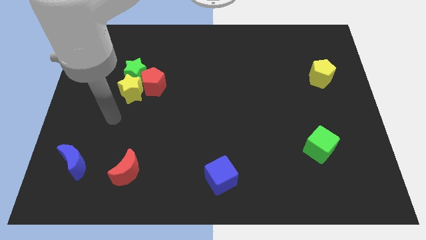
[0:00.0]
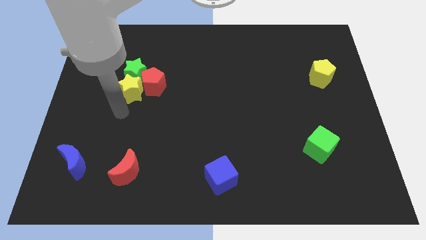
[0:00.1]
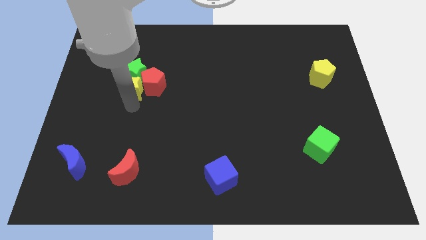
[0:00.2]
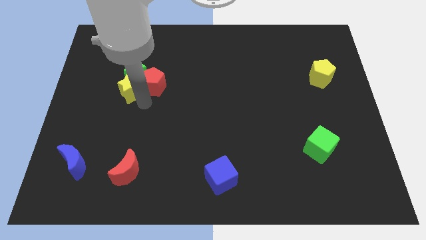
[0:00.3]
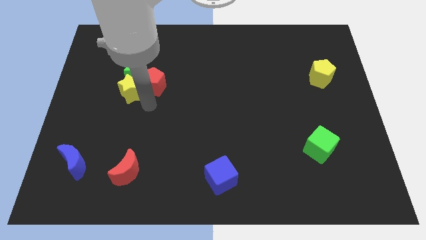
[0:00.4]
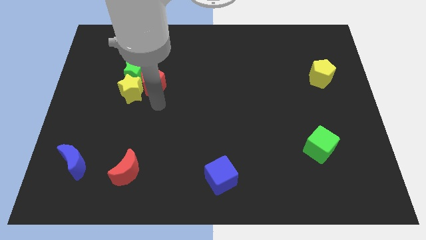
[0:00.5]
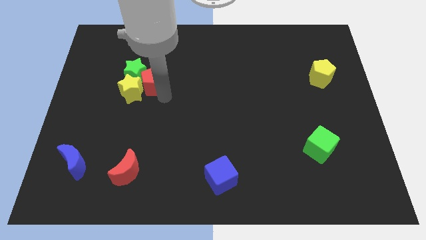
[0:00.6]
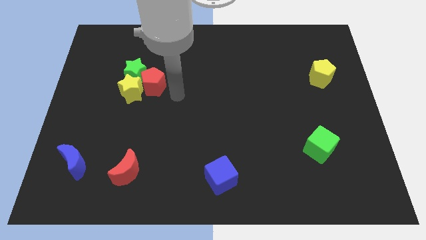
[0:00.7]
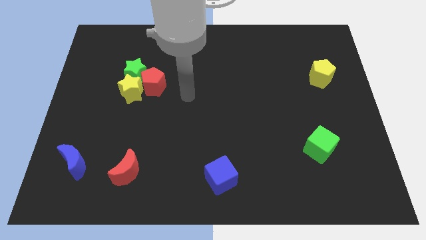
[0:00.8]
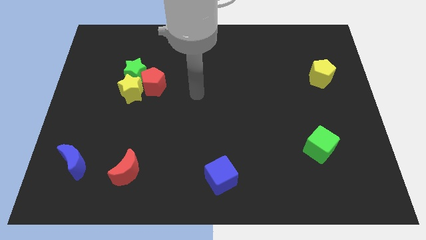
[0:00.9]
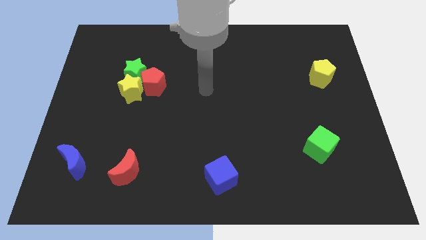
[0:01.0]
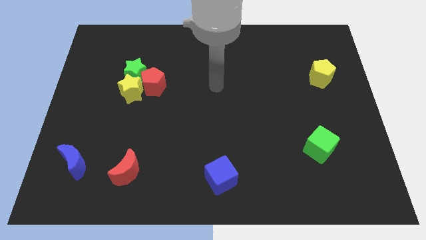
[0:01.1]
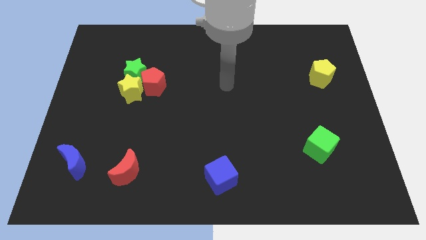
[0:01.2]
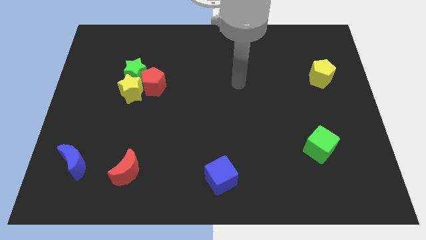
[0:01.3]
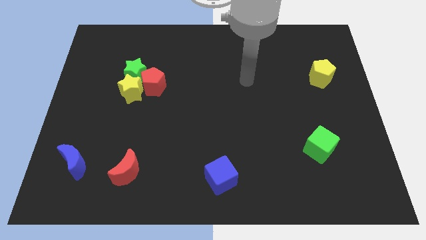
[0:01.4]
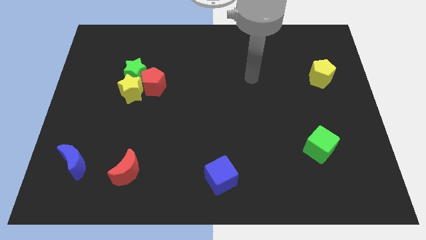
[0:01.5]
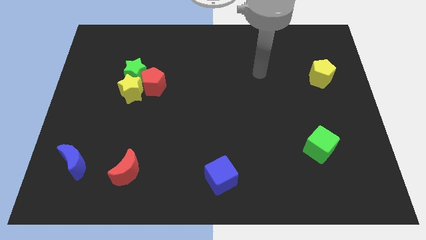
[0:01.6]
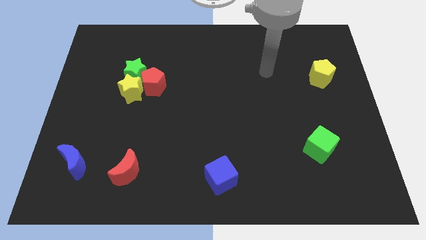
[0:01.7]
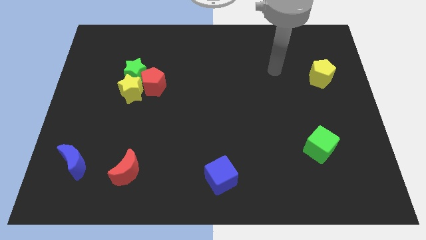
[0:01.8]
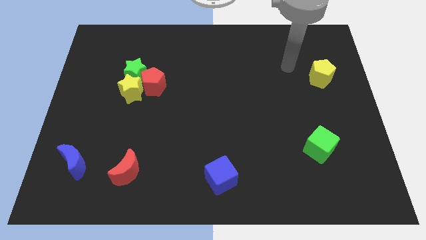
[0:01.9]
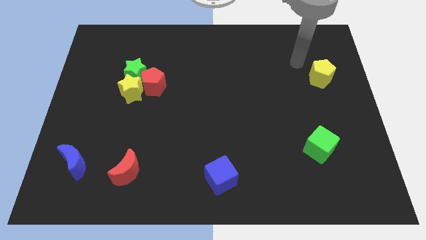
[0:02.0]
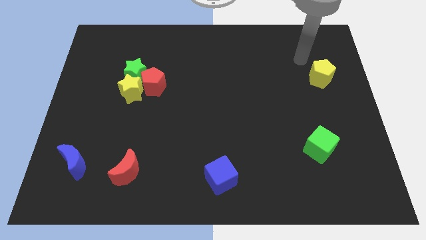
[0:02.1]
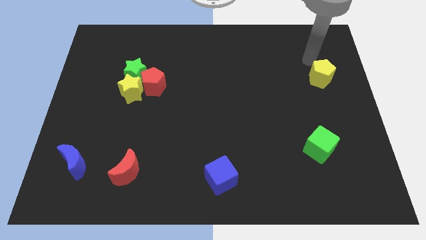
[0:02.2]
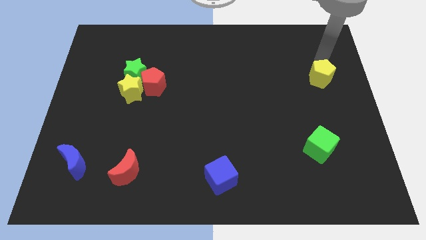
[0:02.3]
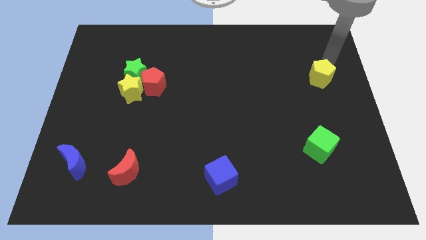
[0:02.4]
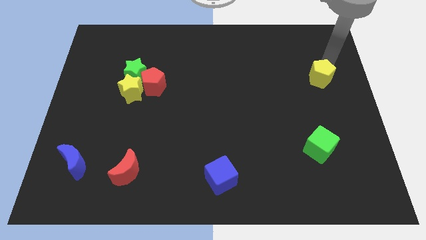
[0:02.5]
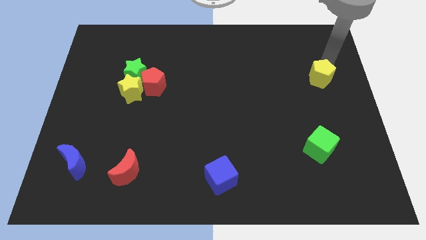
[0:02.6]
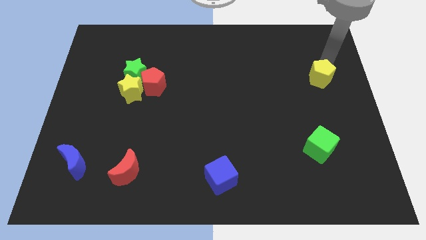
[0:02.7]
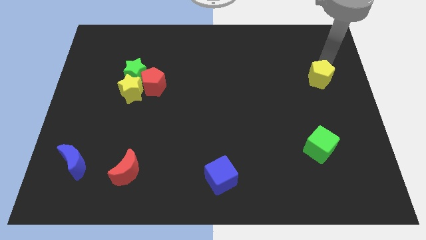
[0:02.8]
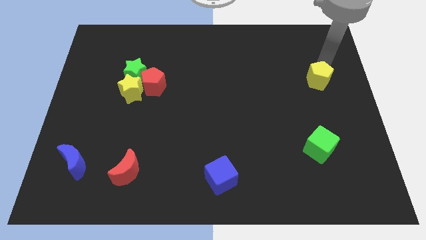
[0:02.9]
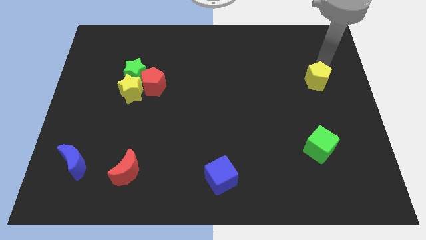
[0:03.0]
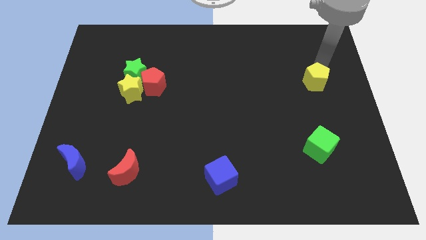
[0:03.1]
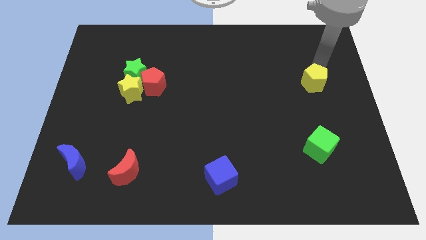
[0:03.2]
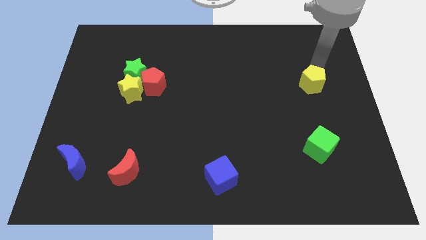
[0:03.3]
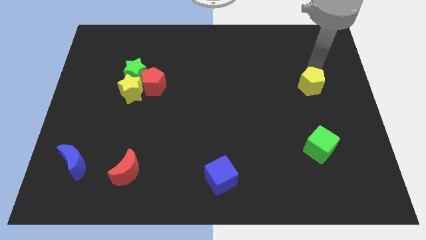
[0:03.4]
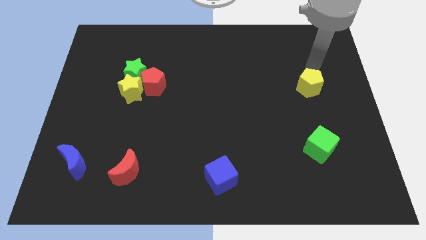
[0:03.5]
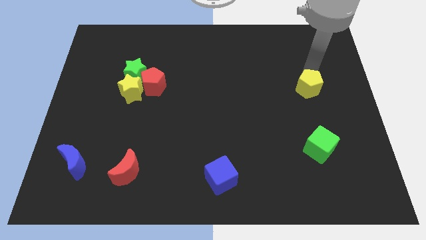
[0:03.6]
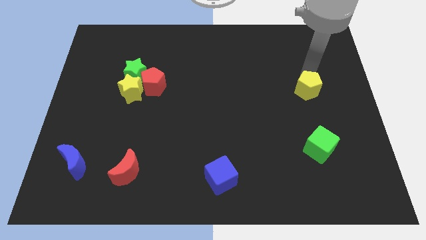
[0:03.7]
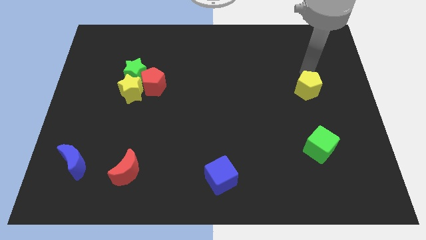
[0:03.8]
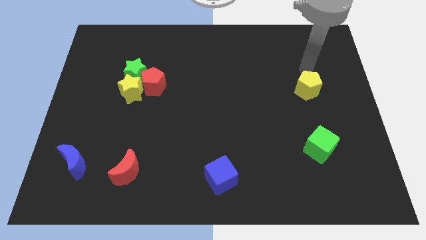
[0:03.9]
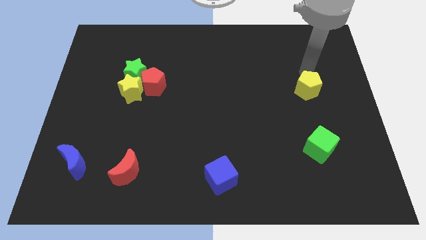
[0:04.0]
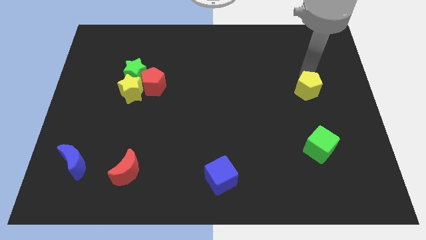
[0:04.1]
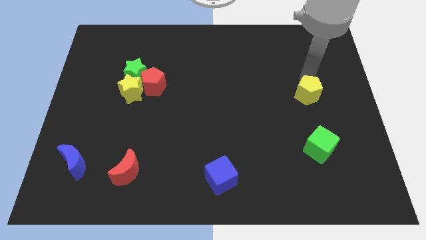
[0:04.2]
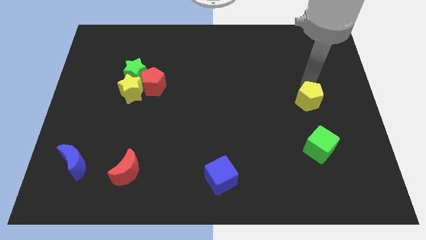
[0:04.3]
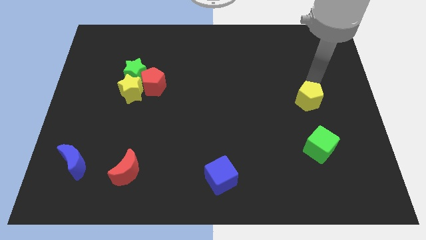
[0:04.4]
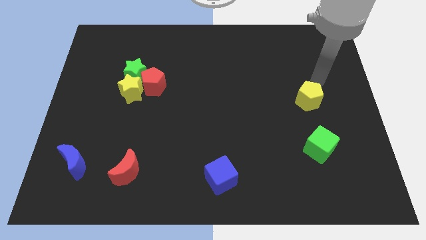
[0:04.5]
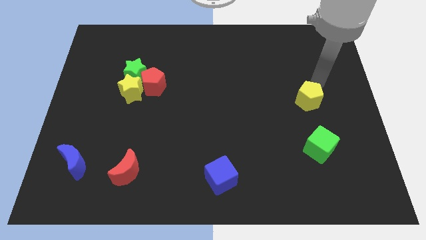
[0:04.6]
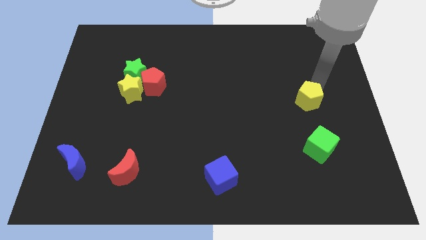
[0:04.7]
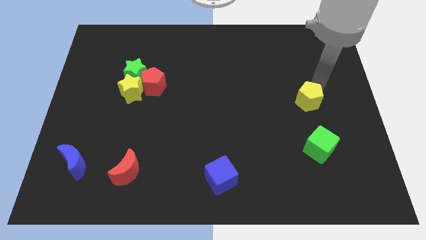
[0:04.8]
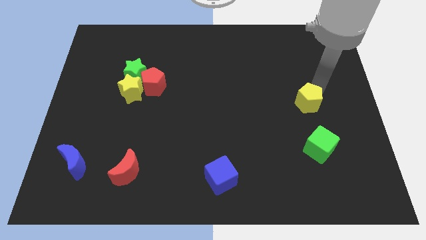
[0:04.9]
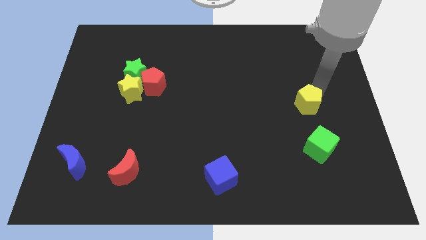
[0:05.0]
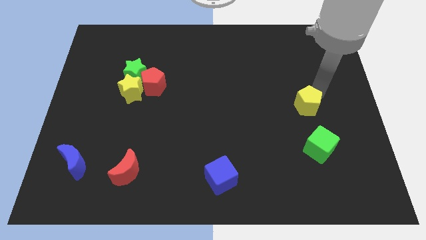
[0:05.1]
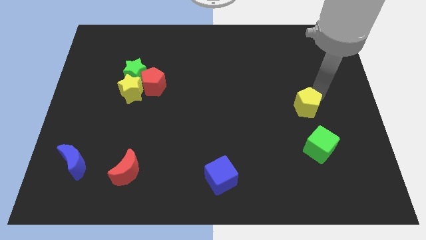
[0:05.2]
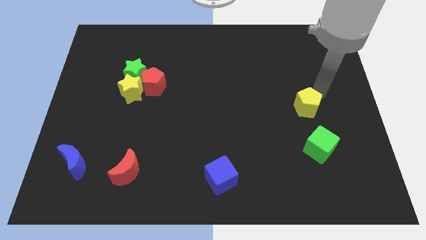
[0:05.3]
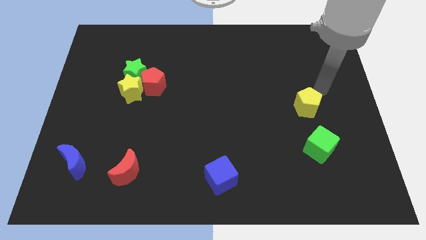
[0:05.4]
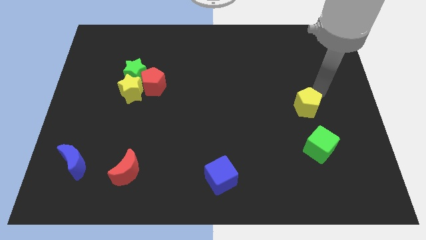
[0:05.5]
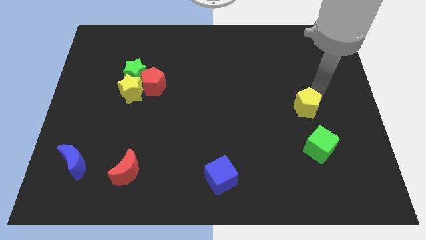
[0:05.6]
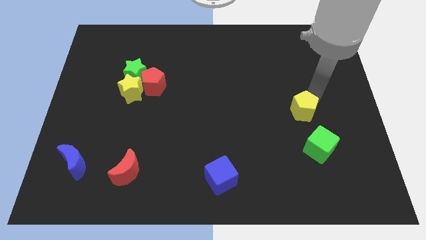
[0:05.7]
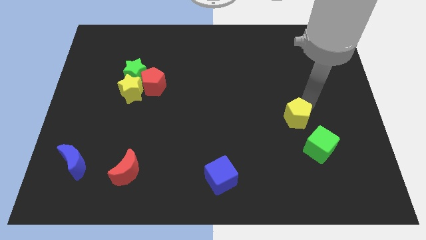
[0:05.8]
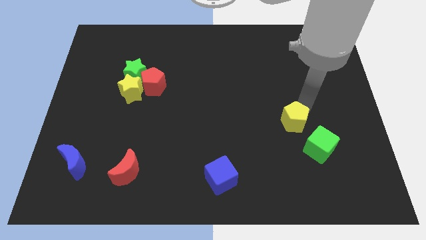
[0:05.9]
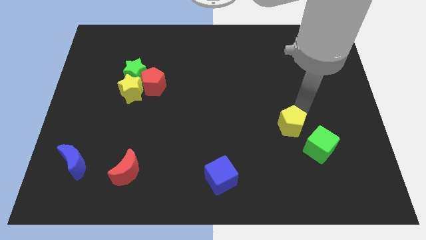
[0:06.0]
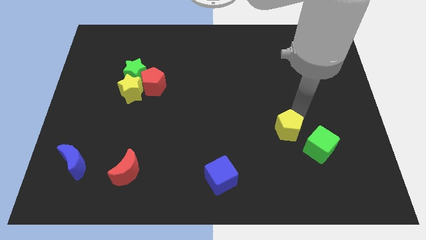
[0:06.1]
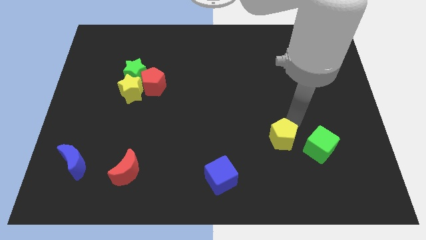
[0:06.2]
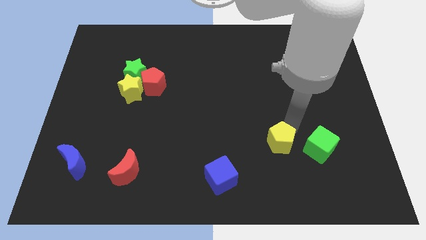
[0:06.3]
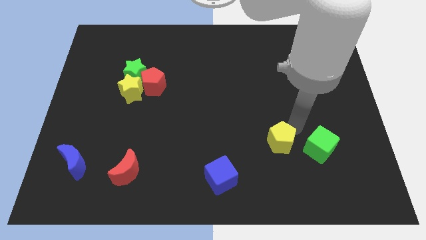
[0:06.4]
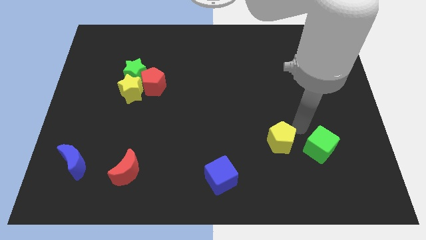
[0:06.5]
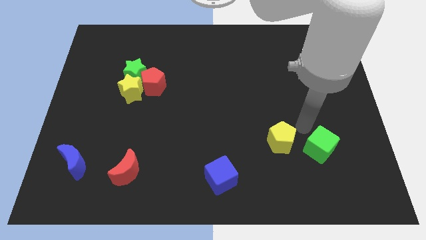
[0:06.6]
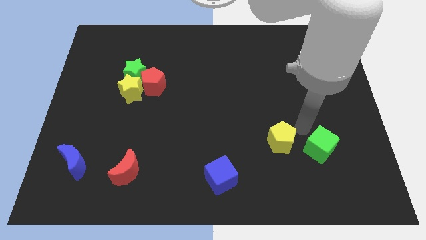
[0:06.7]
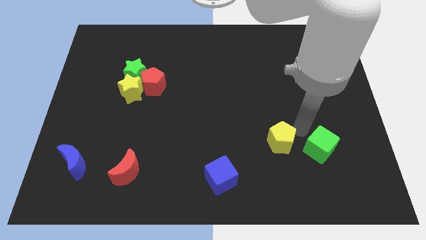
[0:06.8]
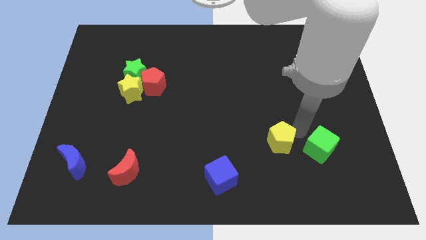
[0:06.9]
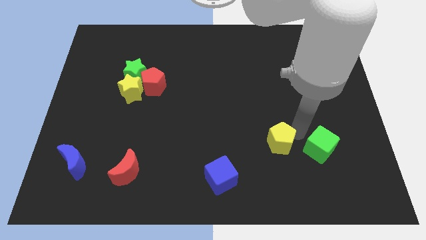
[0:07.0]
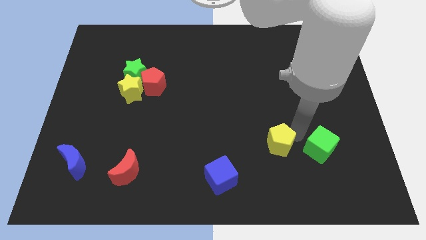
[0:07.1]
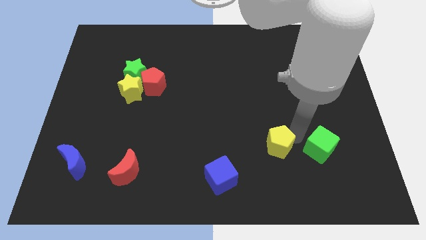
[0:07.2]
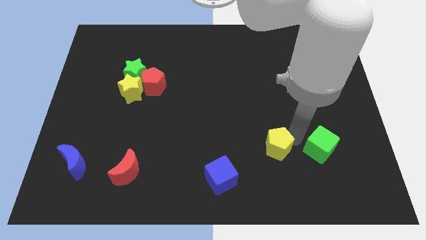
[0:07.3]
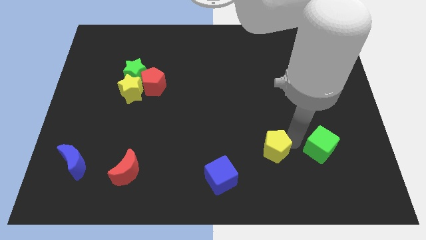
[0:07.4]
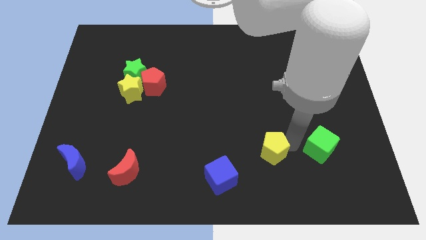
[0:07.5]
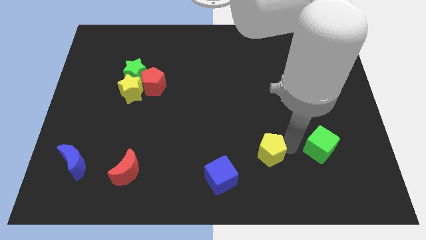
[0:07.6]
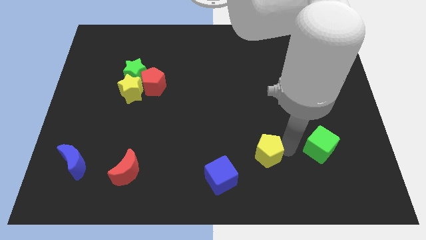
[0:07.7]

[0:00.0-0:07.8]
push the yellow pentagon to the top right of the blue cube
